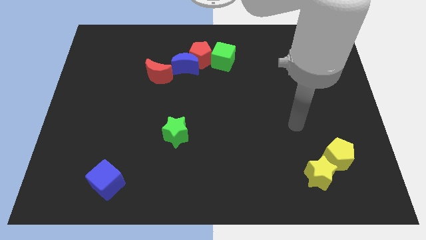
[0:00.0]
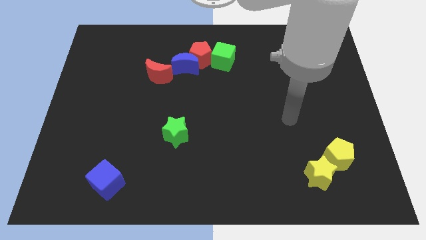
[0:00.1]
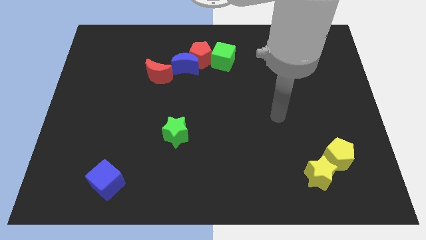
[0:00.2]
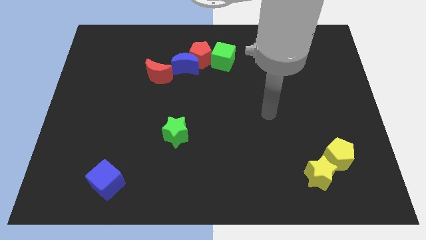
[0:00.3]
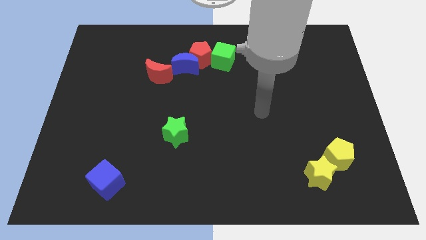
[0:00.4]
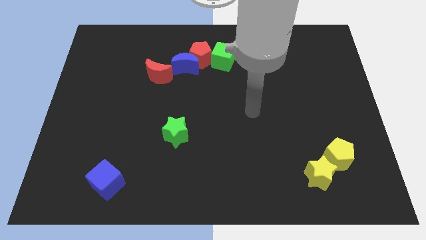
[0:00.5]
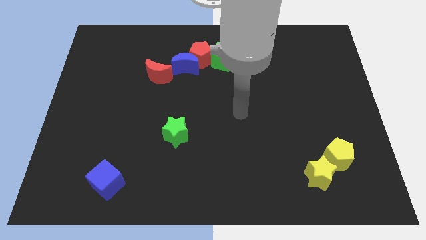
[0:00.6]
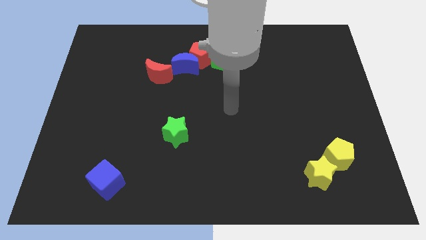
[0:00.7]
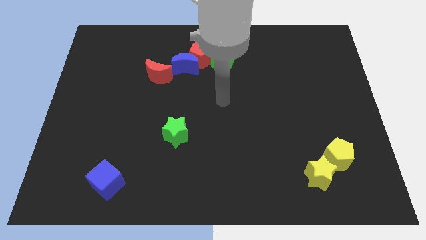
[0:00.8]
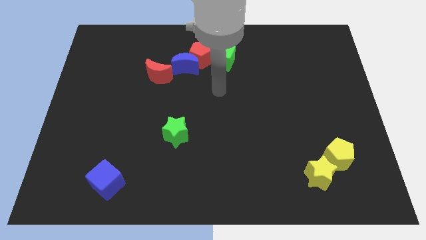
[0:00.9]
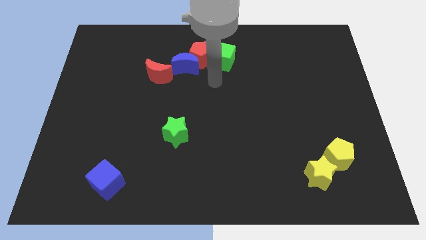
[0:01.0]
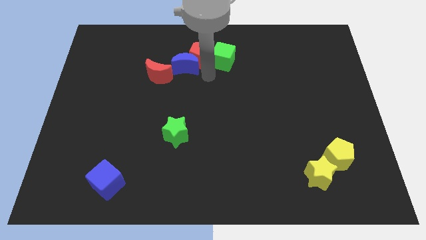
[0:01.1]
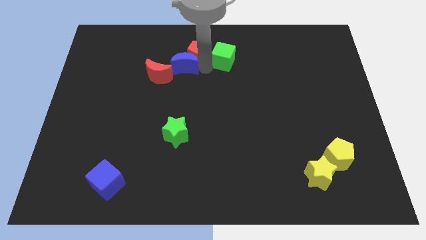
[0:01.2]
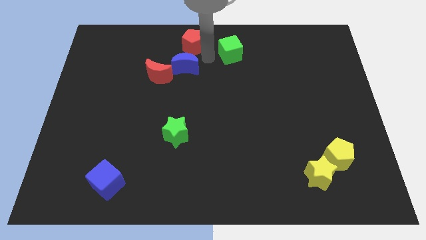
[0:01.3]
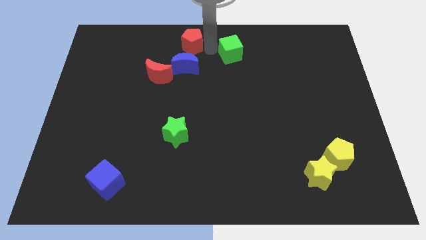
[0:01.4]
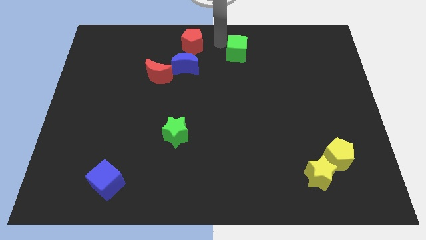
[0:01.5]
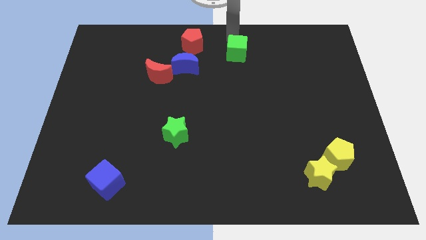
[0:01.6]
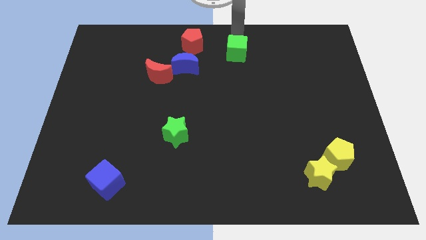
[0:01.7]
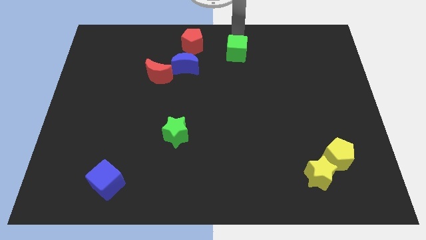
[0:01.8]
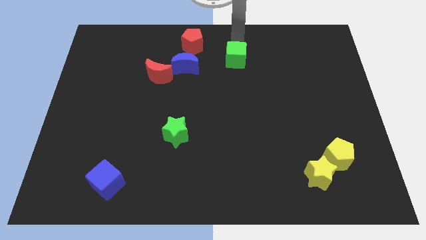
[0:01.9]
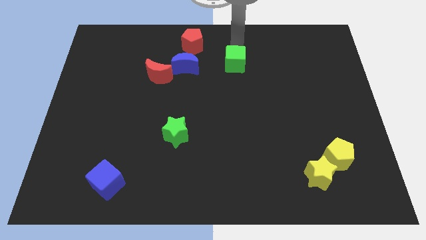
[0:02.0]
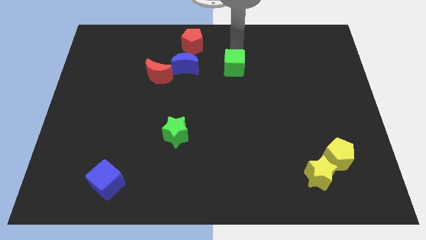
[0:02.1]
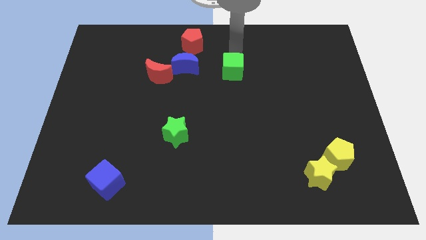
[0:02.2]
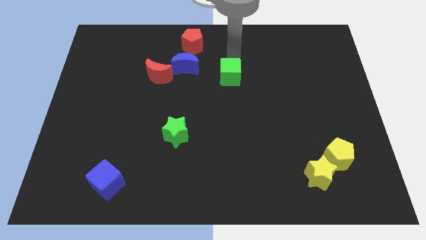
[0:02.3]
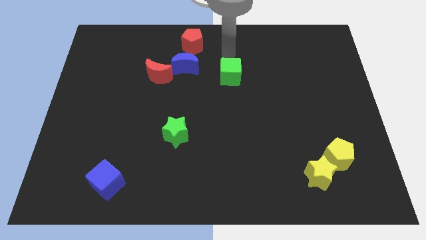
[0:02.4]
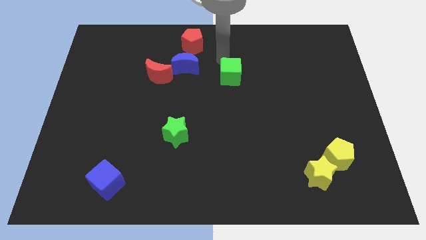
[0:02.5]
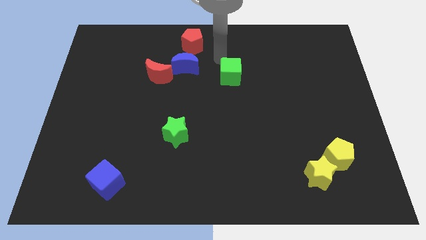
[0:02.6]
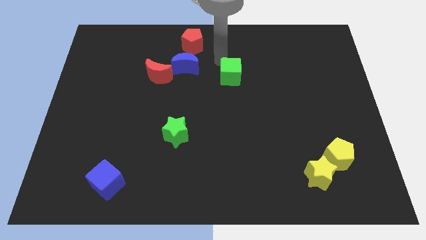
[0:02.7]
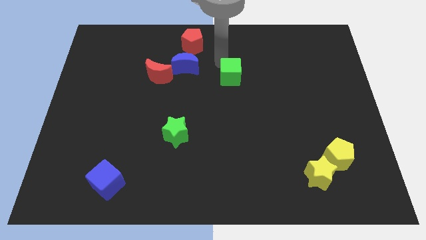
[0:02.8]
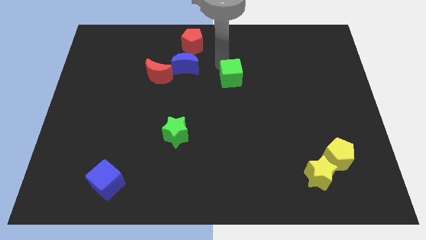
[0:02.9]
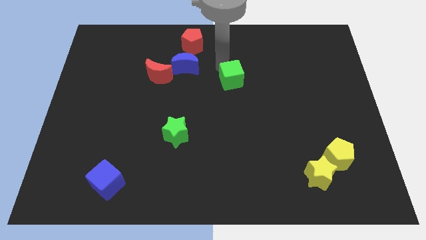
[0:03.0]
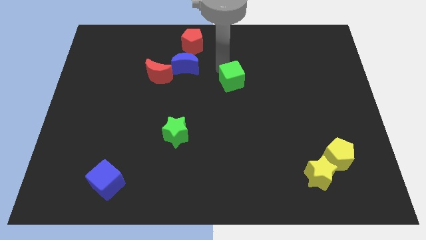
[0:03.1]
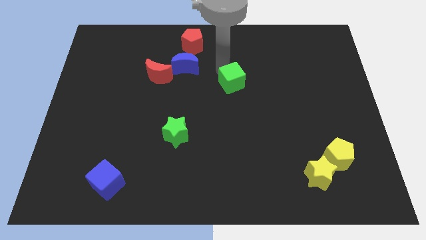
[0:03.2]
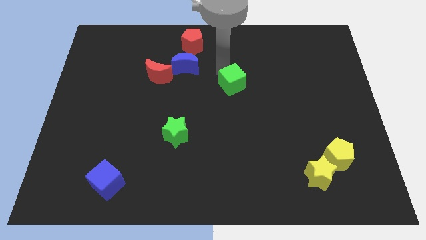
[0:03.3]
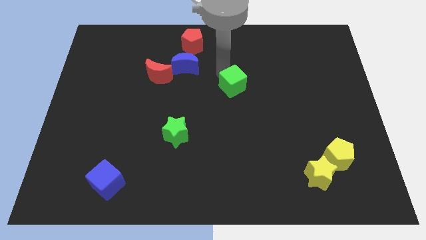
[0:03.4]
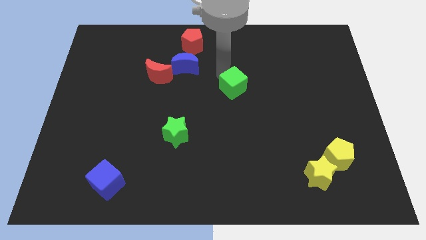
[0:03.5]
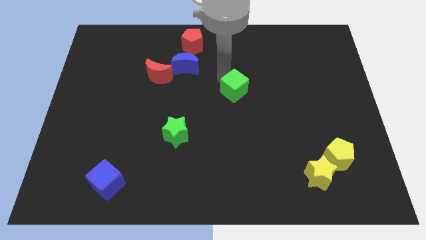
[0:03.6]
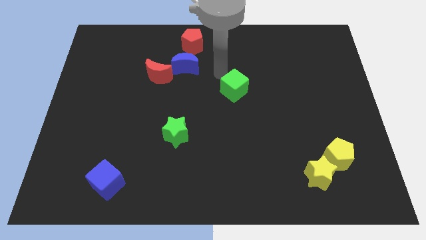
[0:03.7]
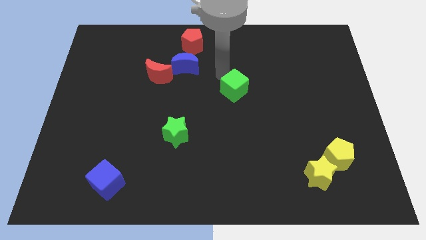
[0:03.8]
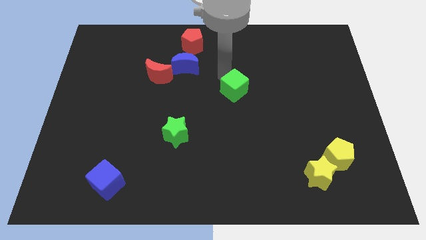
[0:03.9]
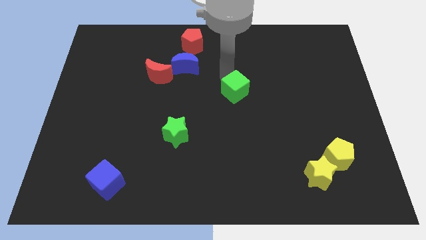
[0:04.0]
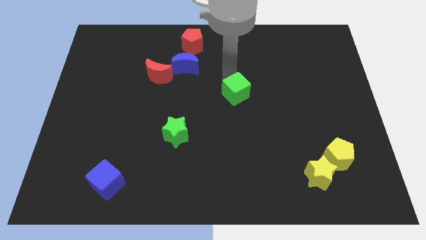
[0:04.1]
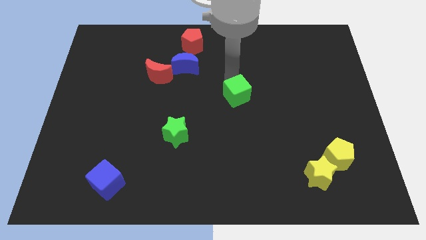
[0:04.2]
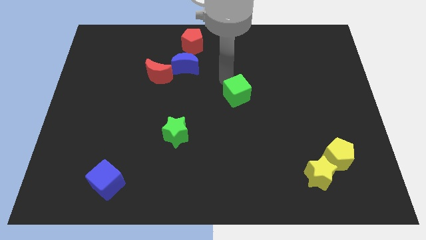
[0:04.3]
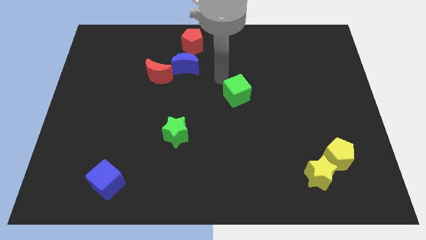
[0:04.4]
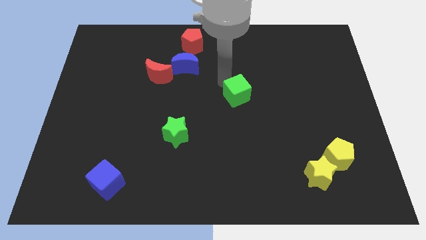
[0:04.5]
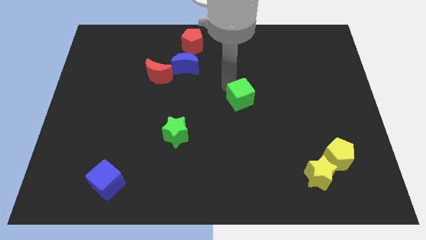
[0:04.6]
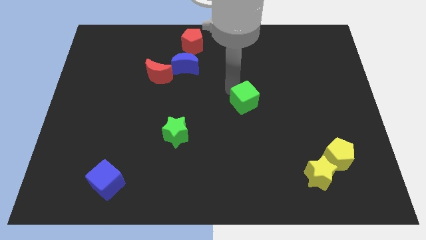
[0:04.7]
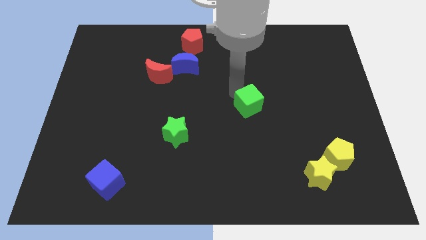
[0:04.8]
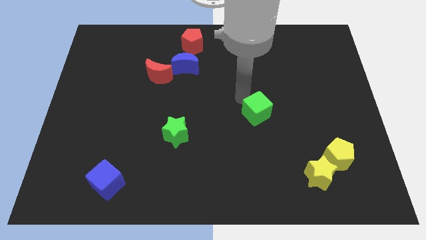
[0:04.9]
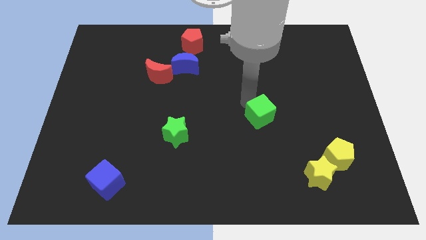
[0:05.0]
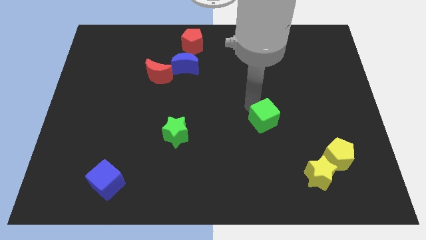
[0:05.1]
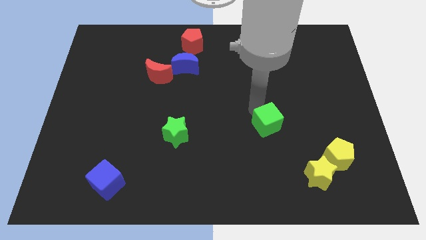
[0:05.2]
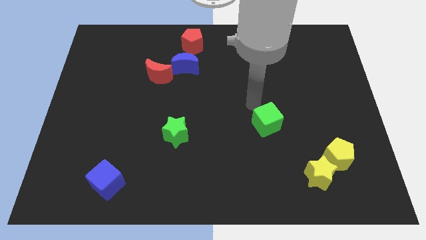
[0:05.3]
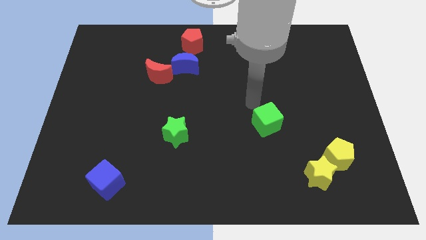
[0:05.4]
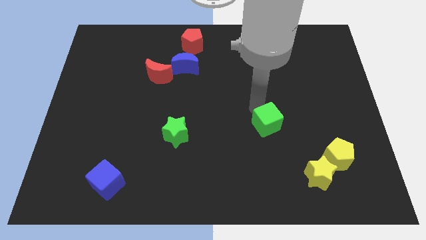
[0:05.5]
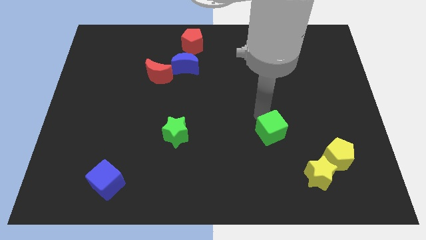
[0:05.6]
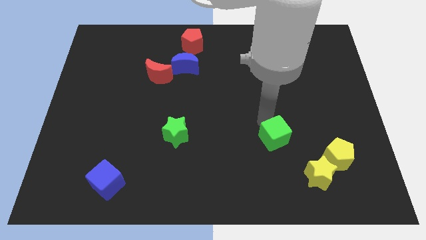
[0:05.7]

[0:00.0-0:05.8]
slide the green cube diagonally up and to the left of the yellow star
